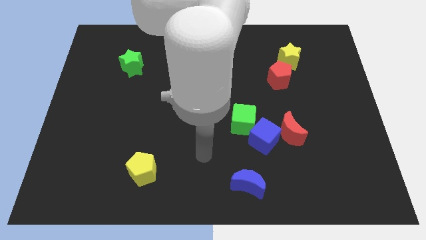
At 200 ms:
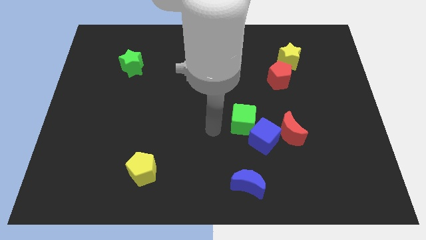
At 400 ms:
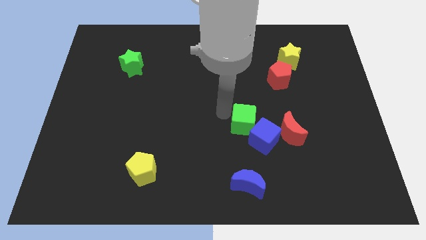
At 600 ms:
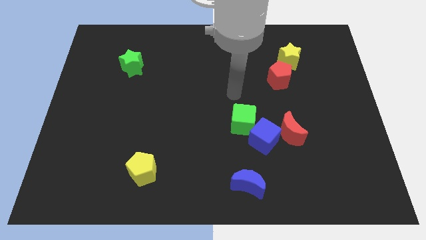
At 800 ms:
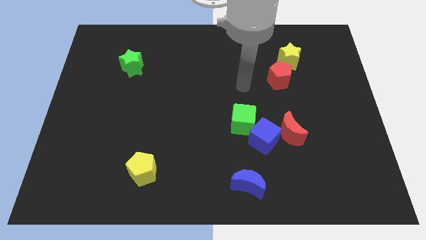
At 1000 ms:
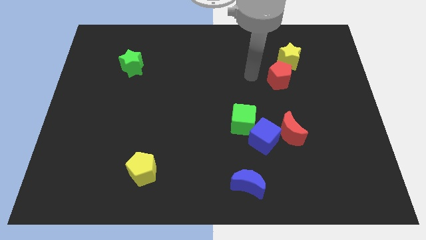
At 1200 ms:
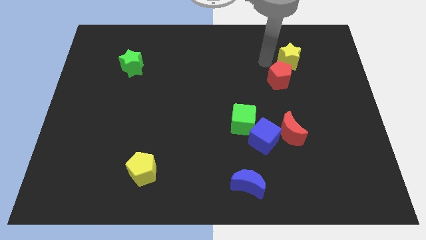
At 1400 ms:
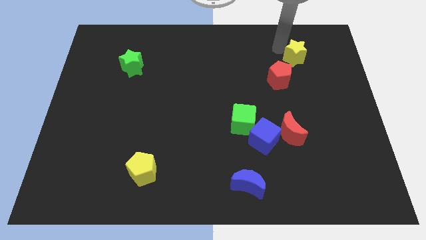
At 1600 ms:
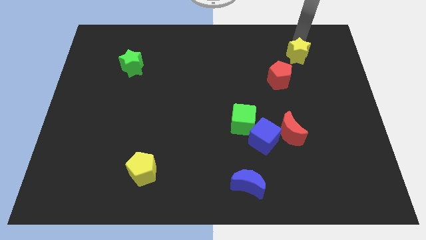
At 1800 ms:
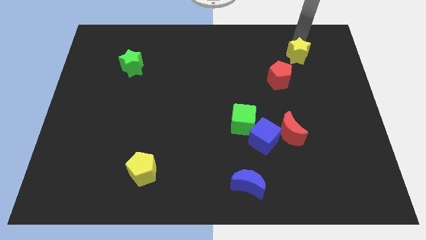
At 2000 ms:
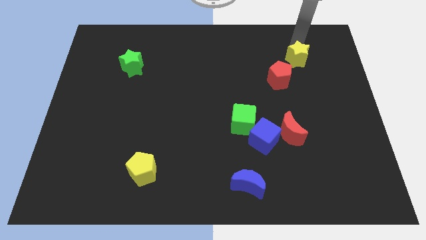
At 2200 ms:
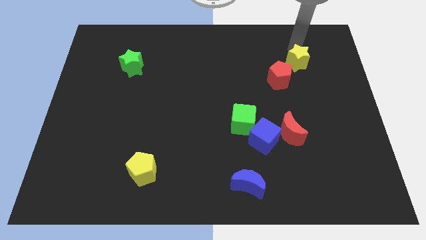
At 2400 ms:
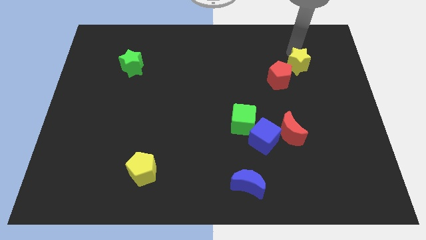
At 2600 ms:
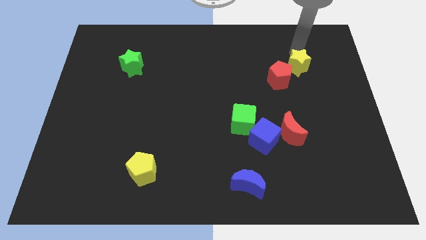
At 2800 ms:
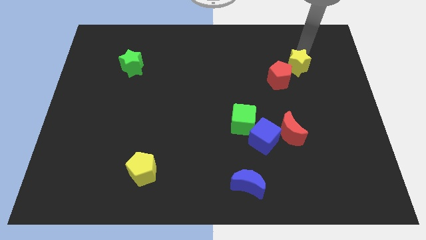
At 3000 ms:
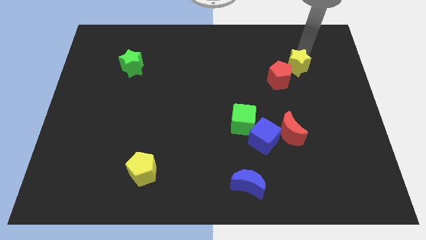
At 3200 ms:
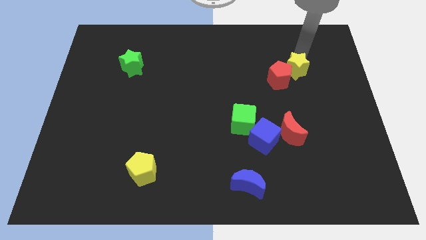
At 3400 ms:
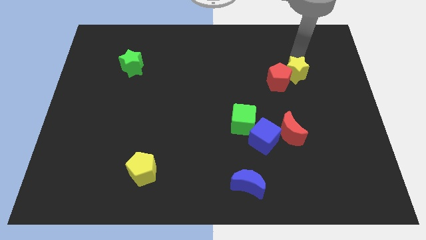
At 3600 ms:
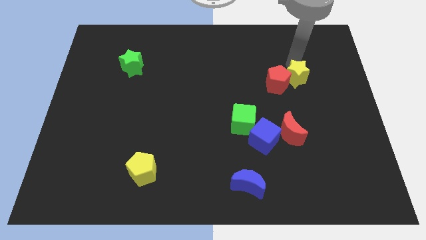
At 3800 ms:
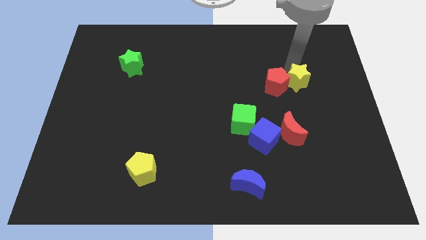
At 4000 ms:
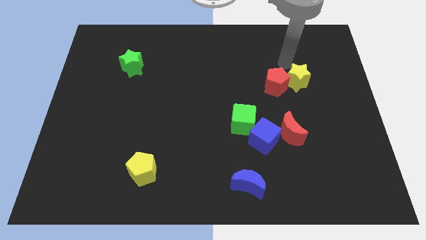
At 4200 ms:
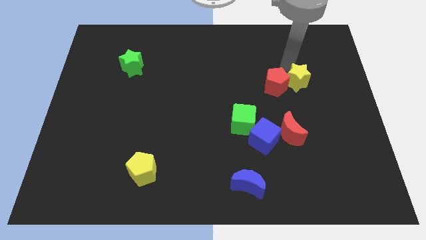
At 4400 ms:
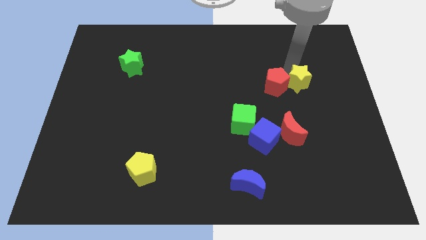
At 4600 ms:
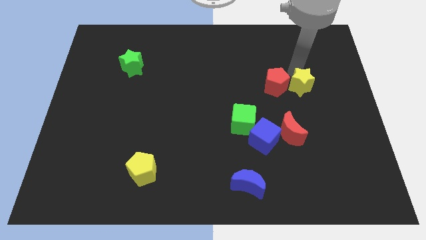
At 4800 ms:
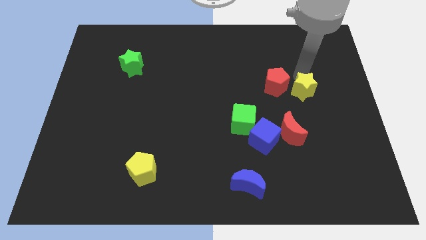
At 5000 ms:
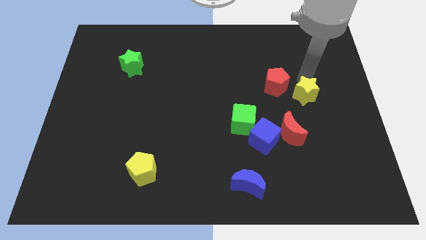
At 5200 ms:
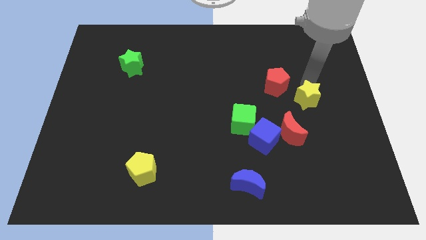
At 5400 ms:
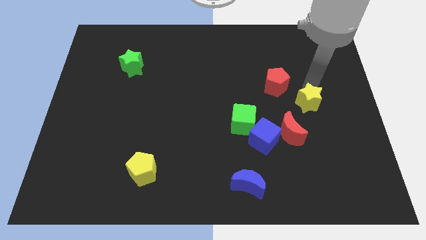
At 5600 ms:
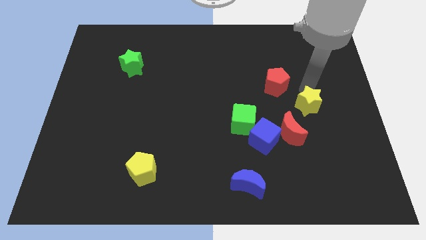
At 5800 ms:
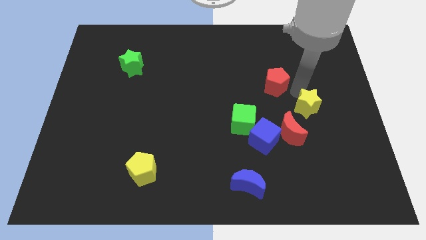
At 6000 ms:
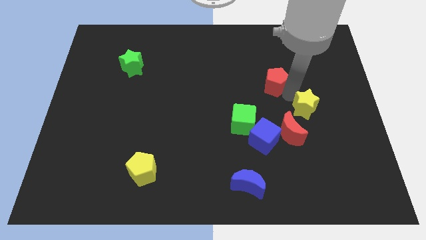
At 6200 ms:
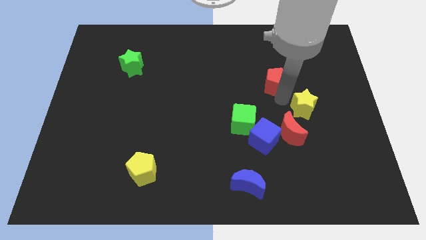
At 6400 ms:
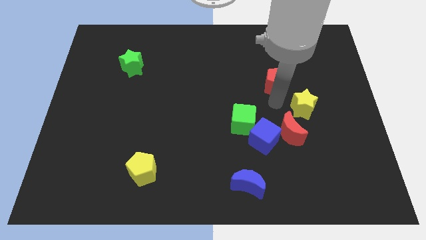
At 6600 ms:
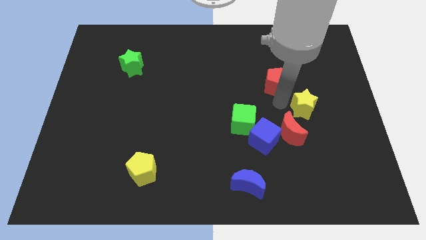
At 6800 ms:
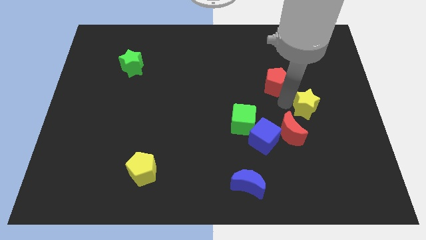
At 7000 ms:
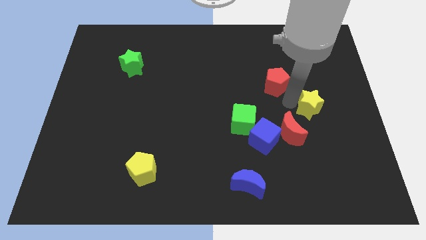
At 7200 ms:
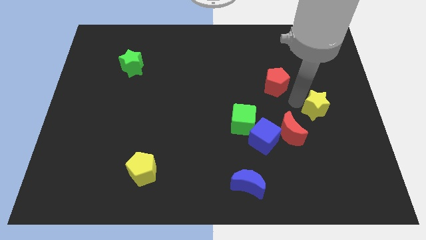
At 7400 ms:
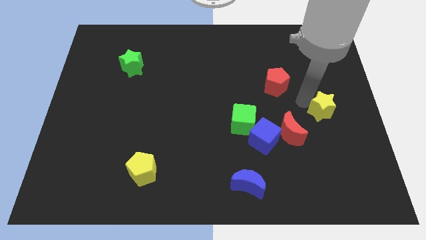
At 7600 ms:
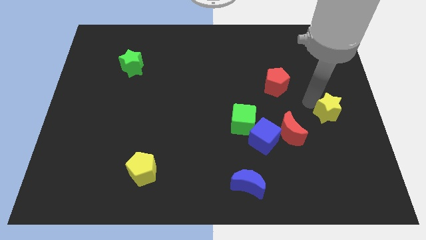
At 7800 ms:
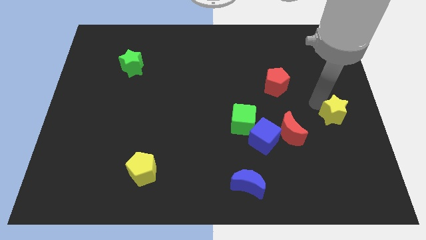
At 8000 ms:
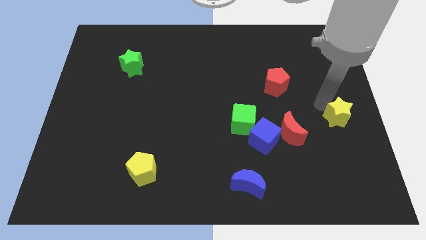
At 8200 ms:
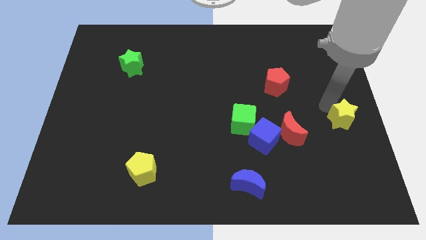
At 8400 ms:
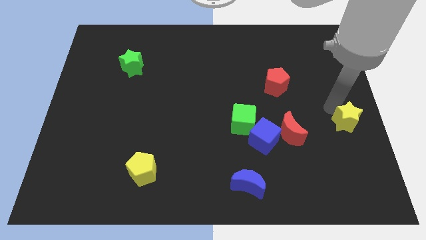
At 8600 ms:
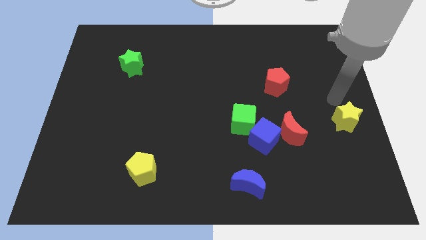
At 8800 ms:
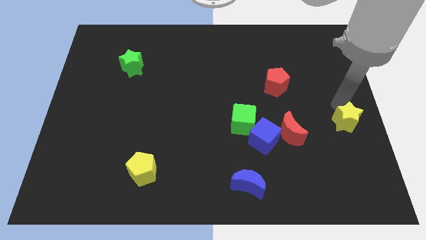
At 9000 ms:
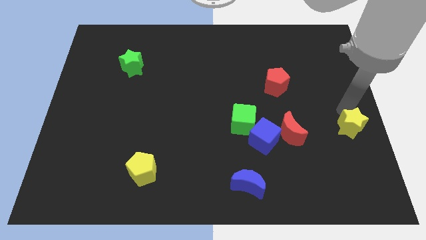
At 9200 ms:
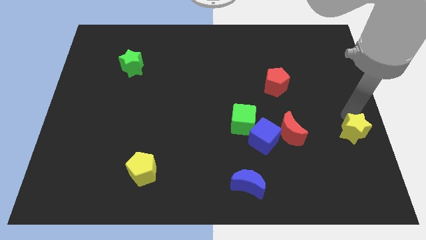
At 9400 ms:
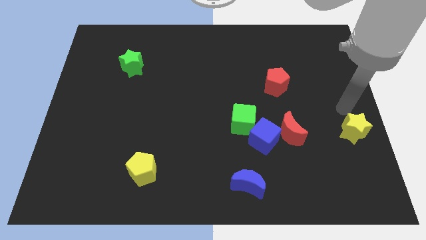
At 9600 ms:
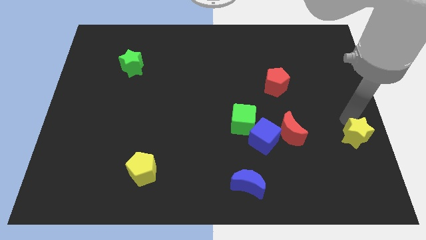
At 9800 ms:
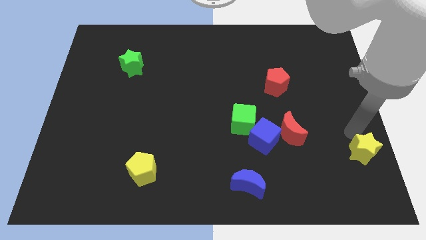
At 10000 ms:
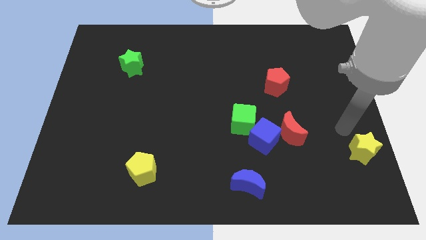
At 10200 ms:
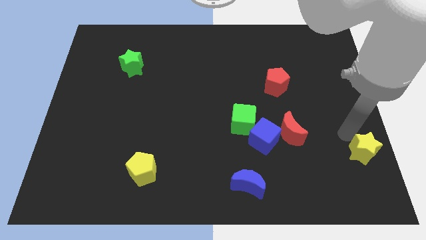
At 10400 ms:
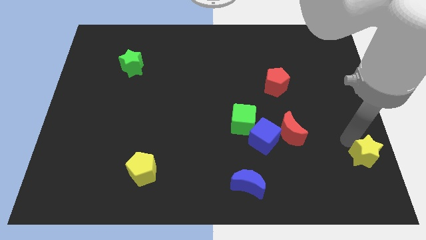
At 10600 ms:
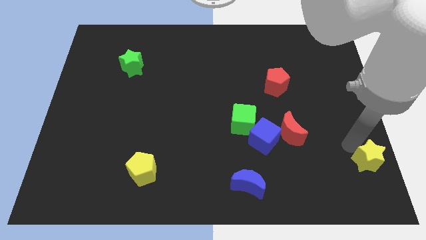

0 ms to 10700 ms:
move the yellow star to the lower right corner

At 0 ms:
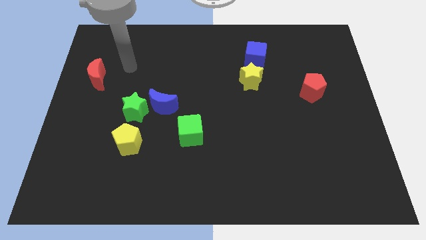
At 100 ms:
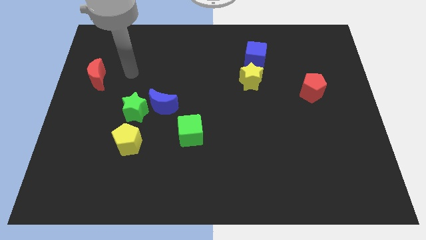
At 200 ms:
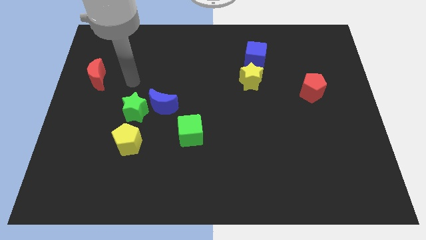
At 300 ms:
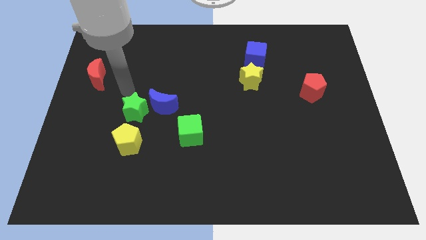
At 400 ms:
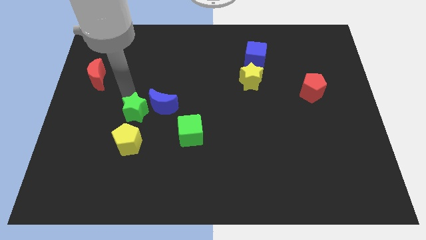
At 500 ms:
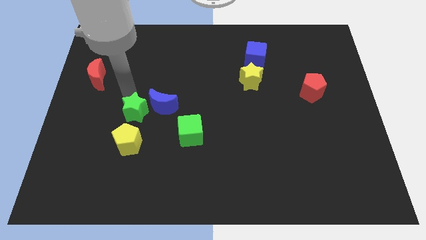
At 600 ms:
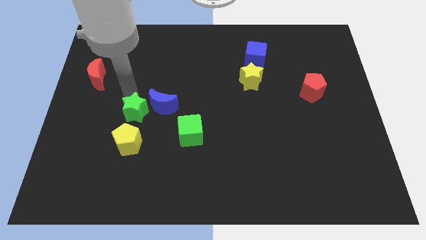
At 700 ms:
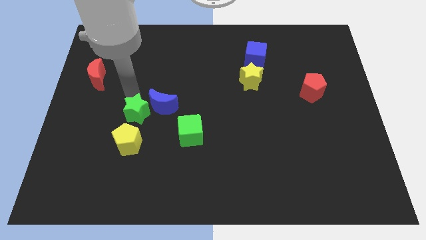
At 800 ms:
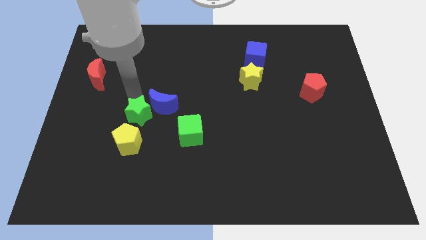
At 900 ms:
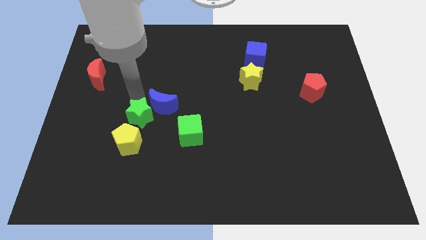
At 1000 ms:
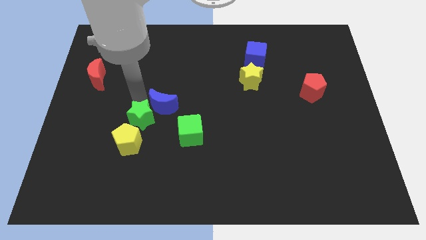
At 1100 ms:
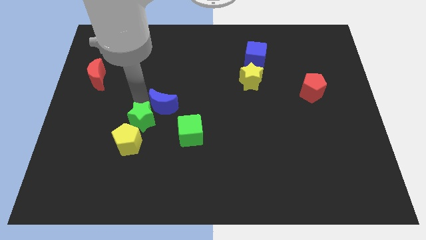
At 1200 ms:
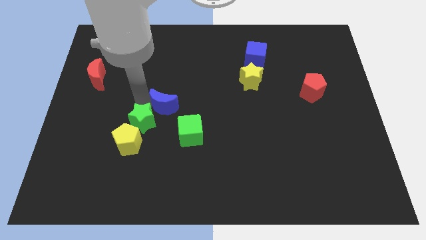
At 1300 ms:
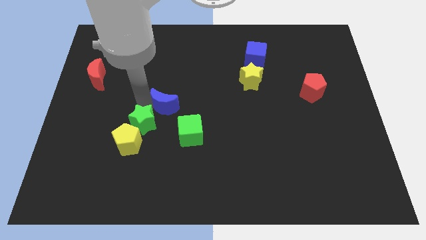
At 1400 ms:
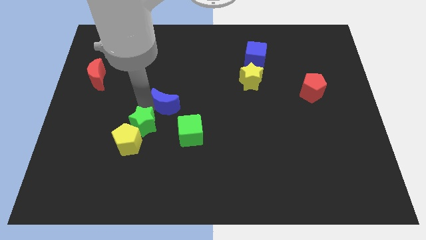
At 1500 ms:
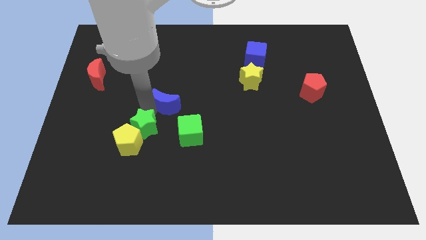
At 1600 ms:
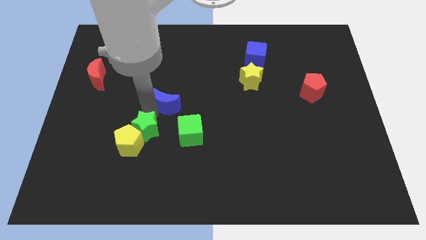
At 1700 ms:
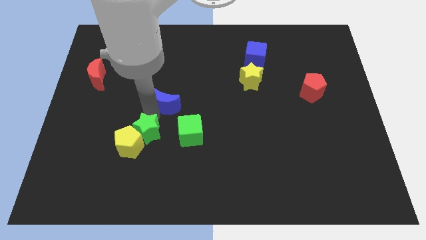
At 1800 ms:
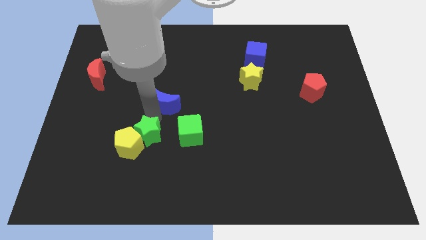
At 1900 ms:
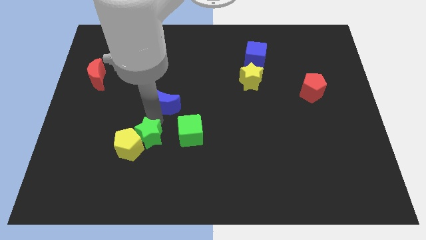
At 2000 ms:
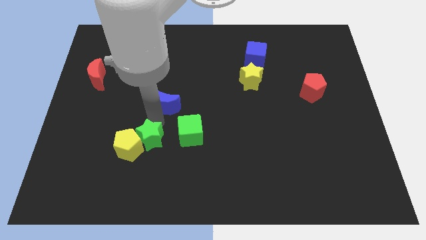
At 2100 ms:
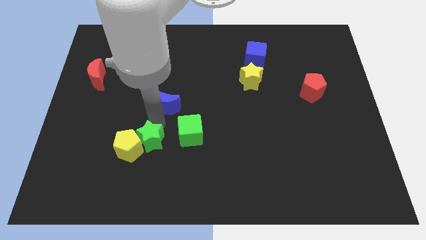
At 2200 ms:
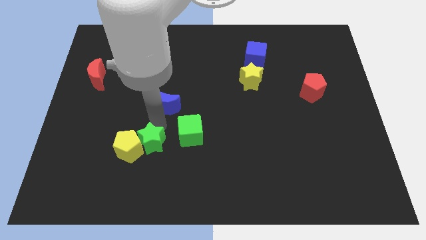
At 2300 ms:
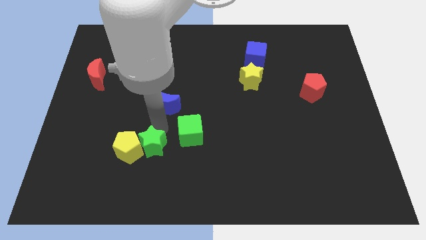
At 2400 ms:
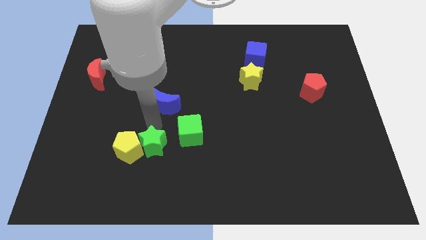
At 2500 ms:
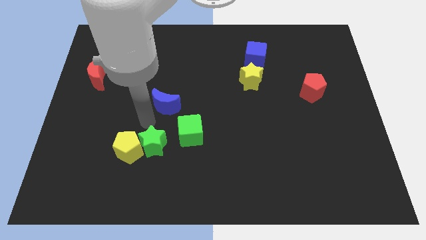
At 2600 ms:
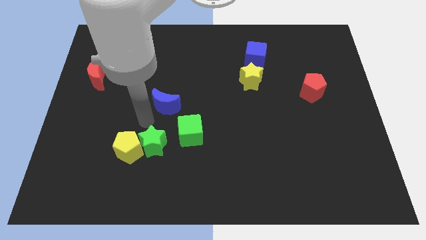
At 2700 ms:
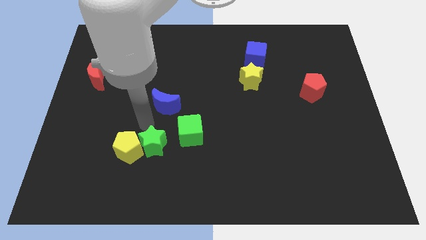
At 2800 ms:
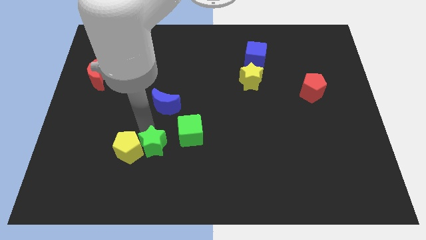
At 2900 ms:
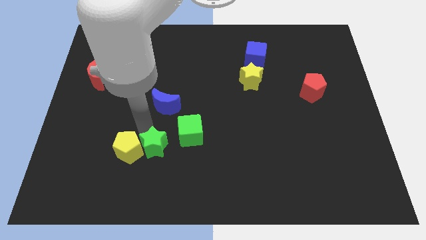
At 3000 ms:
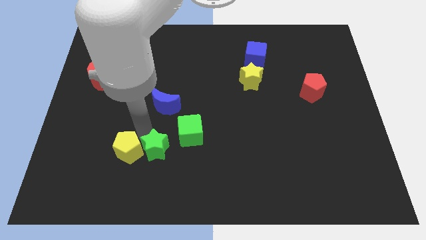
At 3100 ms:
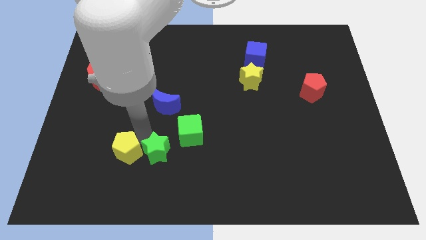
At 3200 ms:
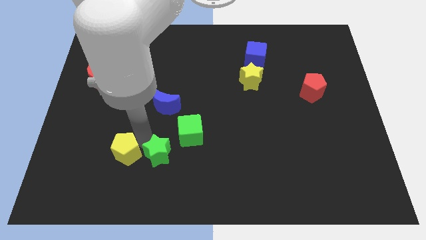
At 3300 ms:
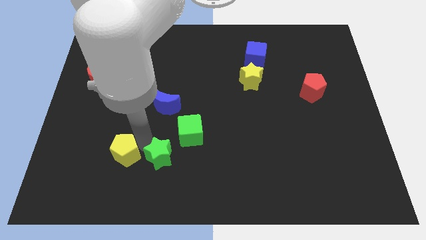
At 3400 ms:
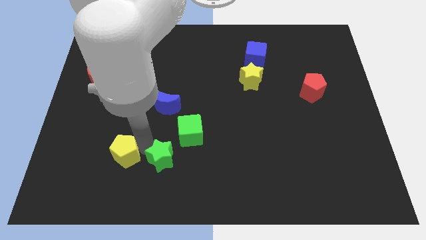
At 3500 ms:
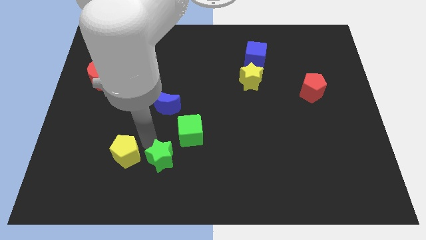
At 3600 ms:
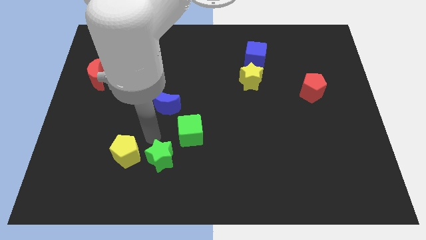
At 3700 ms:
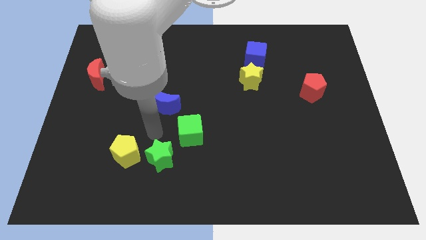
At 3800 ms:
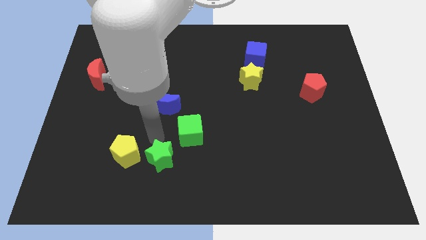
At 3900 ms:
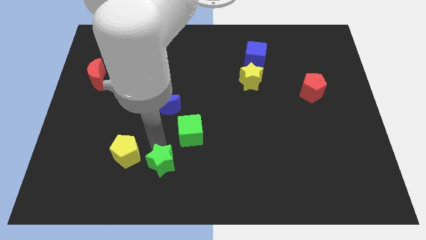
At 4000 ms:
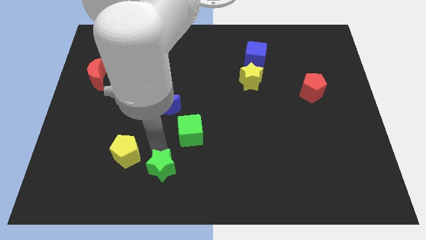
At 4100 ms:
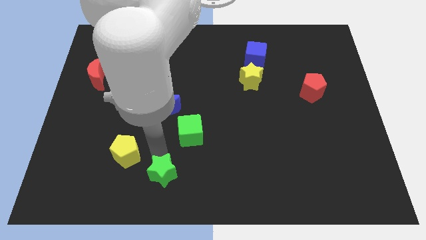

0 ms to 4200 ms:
move the green star to the bottom side
